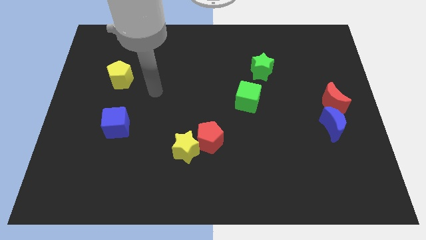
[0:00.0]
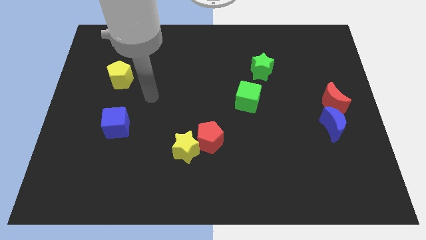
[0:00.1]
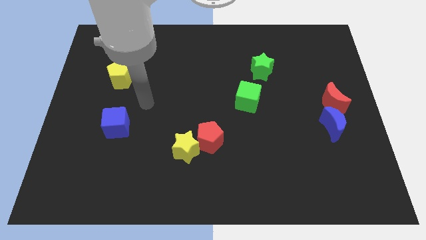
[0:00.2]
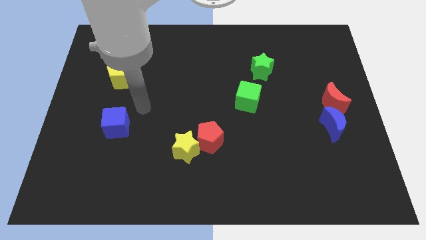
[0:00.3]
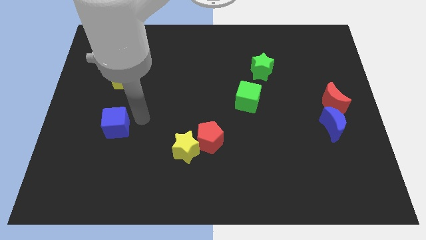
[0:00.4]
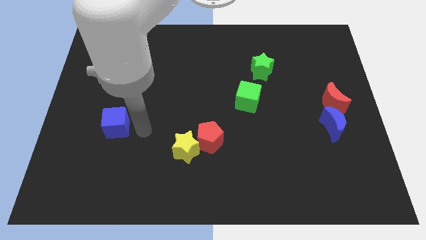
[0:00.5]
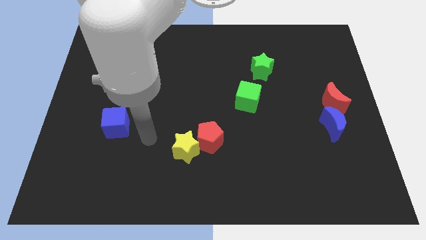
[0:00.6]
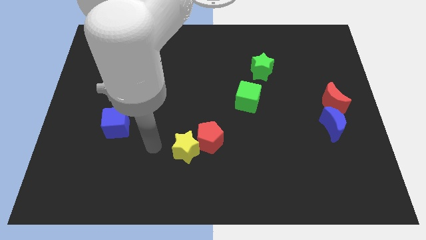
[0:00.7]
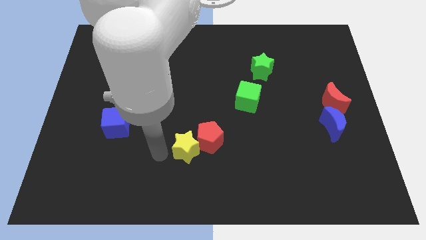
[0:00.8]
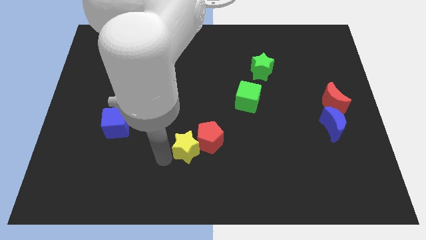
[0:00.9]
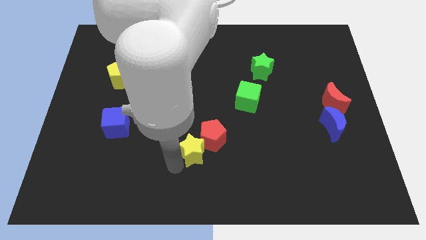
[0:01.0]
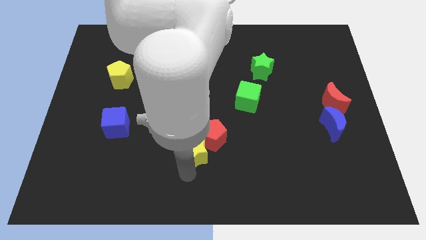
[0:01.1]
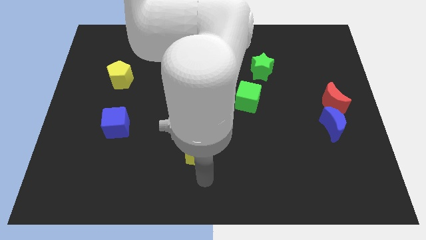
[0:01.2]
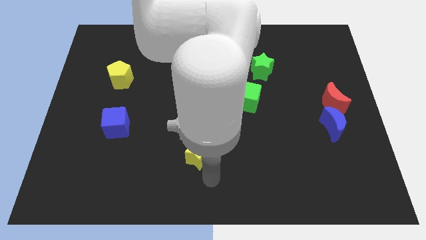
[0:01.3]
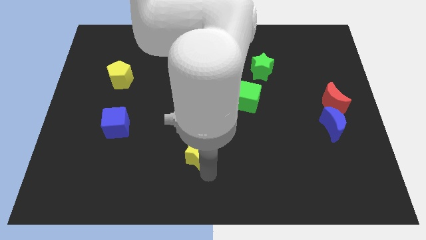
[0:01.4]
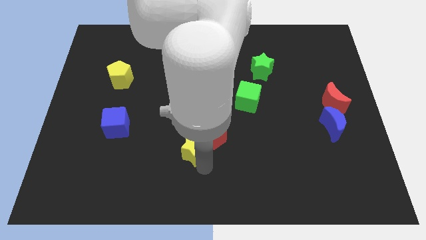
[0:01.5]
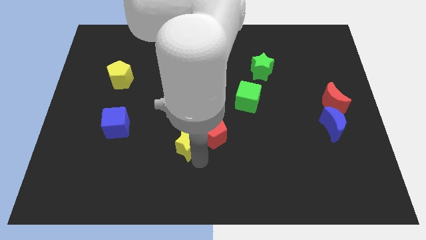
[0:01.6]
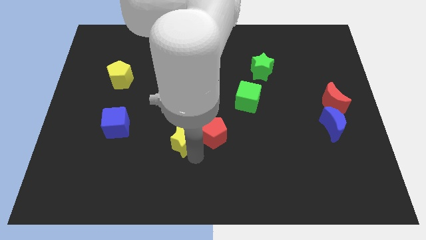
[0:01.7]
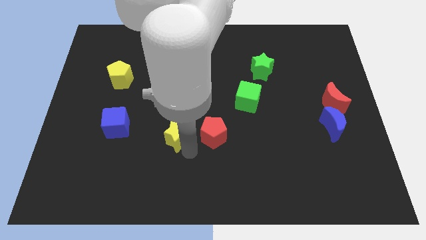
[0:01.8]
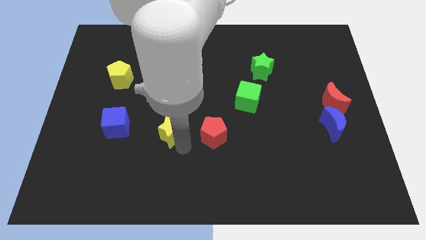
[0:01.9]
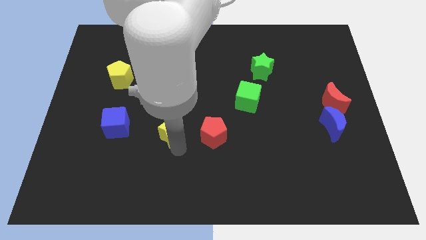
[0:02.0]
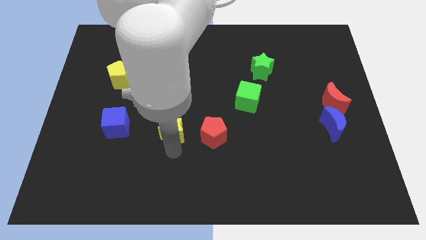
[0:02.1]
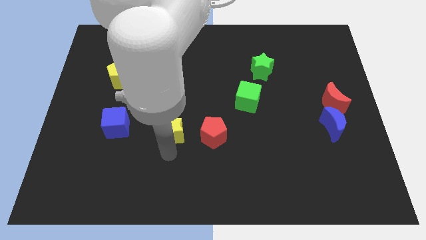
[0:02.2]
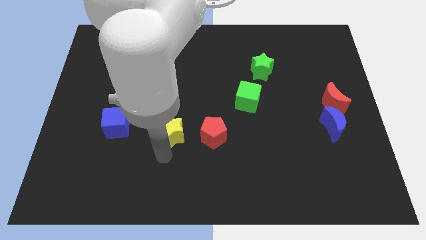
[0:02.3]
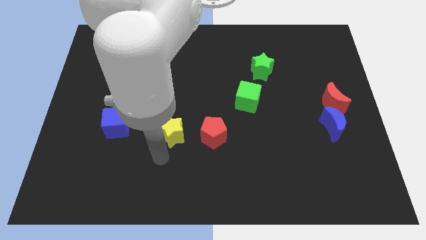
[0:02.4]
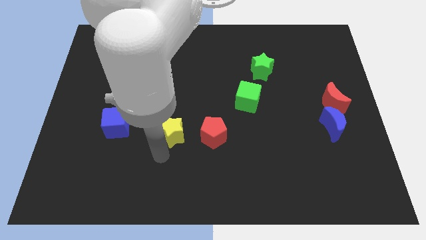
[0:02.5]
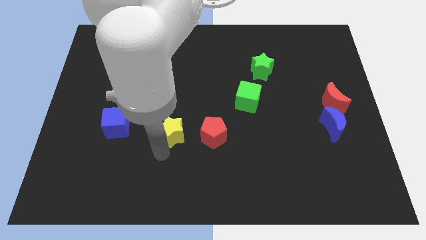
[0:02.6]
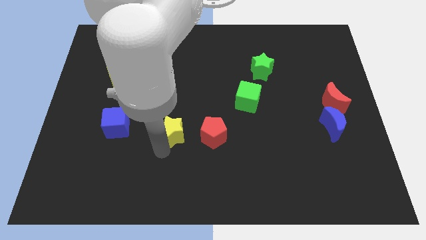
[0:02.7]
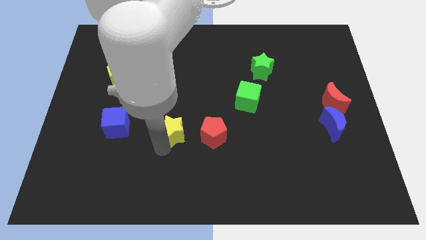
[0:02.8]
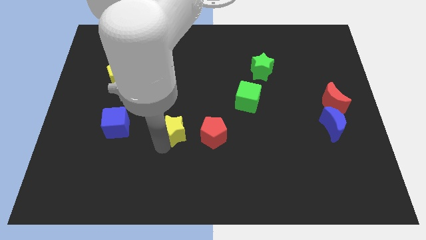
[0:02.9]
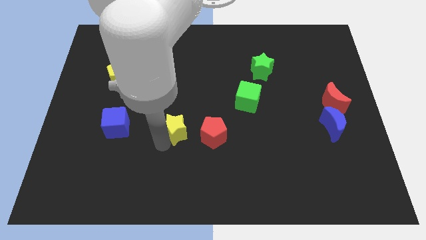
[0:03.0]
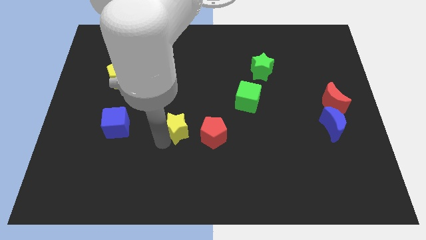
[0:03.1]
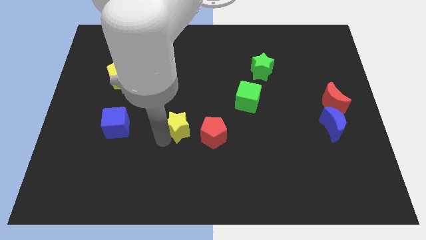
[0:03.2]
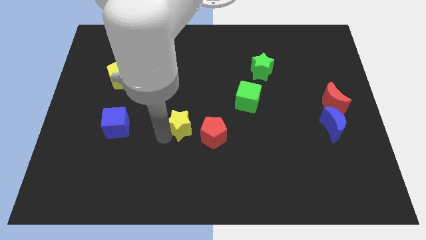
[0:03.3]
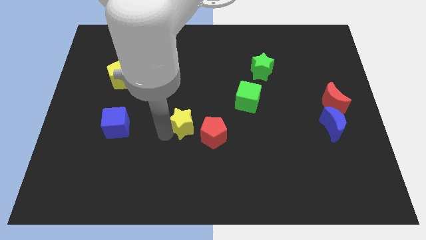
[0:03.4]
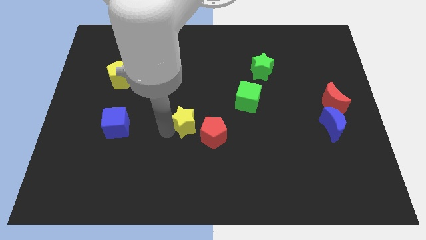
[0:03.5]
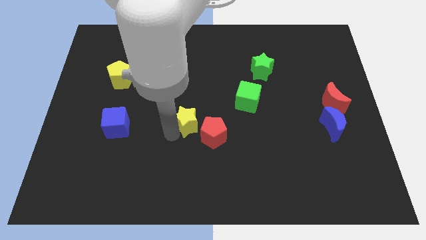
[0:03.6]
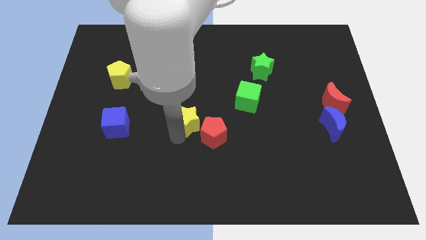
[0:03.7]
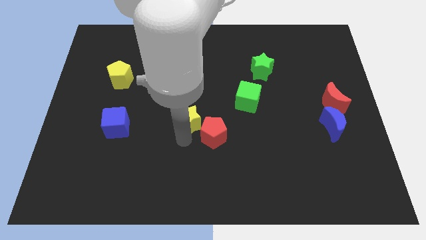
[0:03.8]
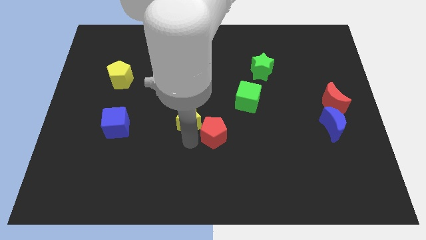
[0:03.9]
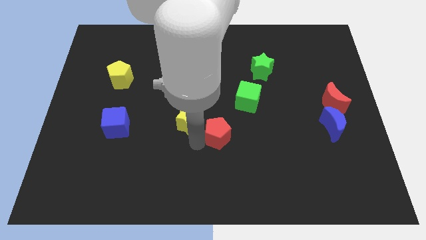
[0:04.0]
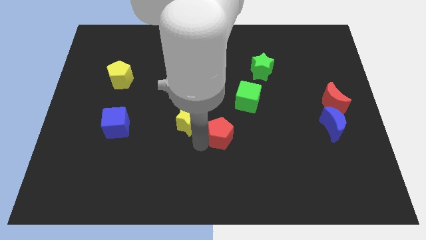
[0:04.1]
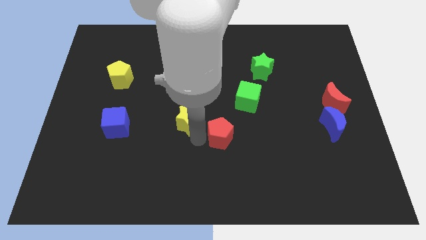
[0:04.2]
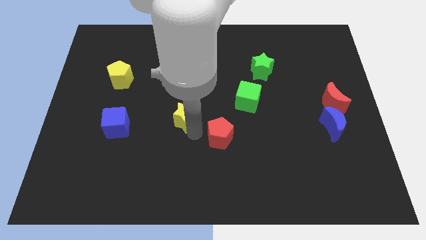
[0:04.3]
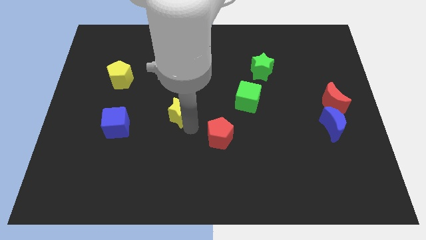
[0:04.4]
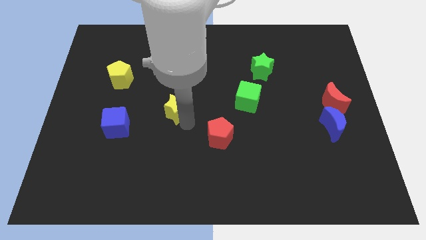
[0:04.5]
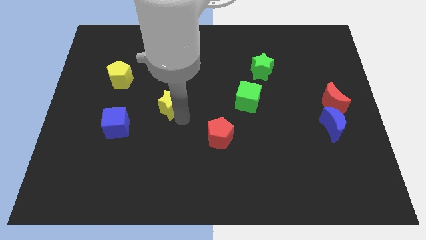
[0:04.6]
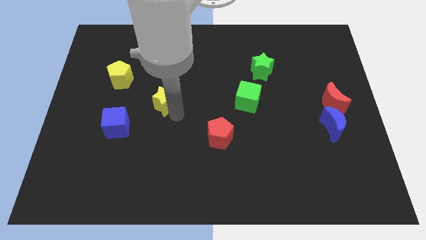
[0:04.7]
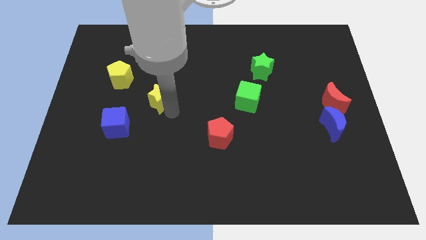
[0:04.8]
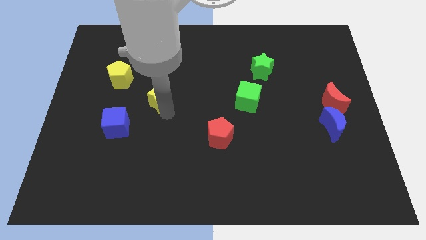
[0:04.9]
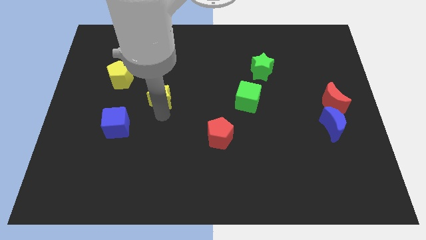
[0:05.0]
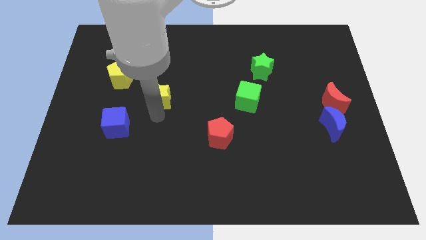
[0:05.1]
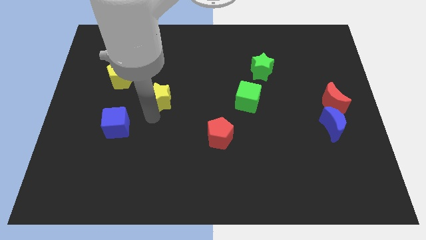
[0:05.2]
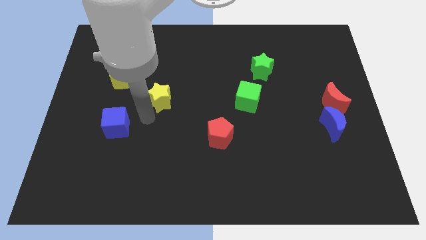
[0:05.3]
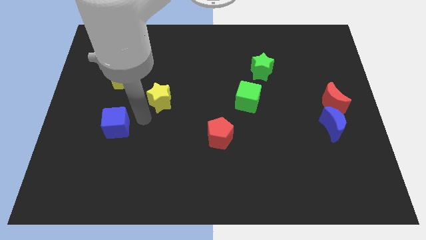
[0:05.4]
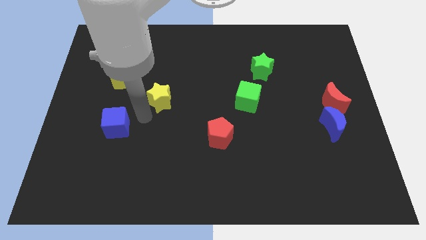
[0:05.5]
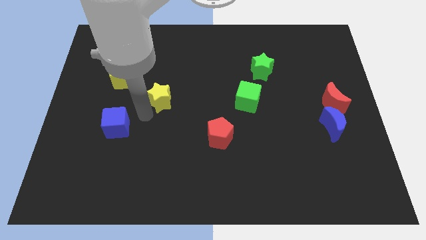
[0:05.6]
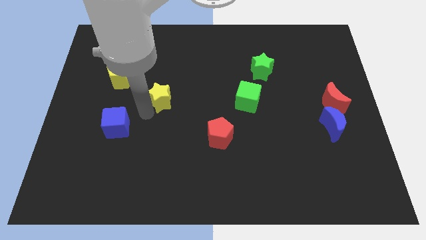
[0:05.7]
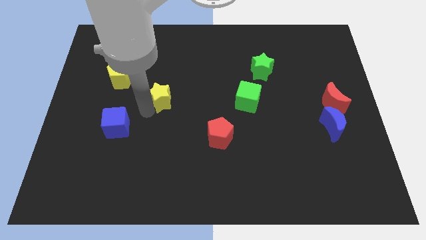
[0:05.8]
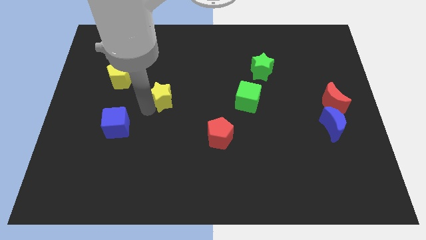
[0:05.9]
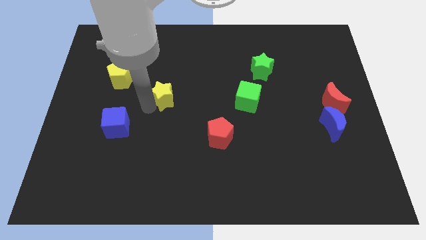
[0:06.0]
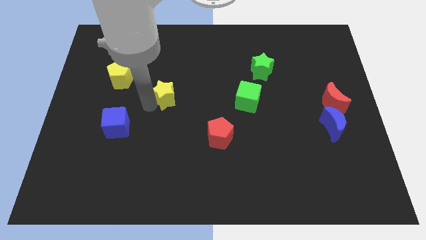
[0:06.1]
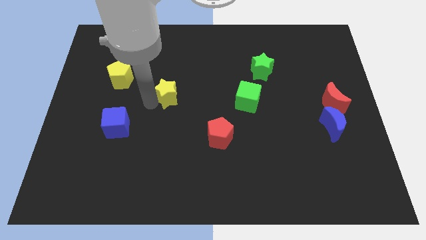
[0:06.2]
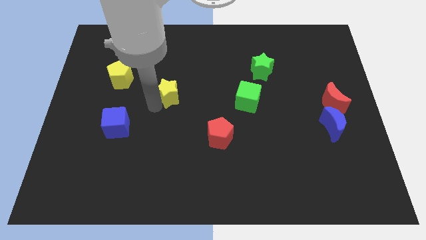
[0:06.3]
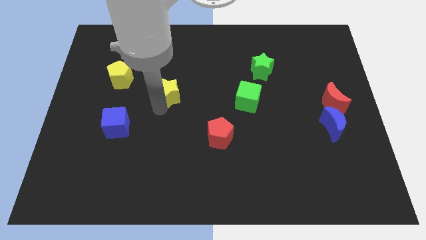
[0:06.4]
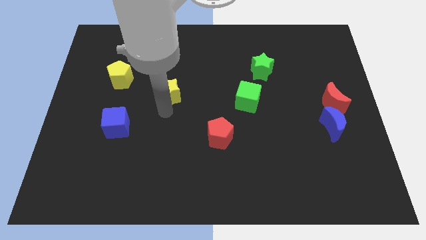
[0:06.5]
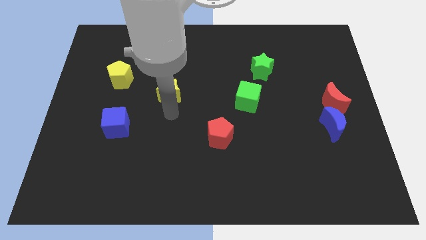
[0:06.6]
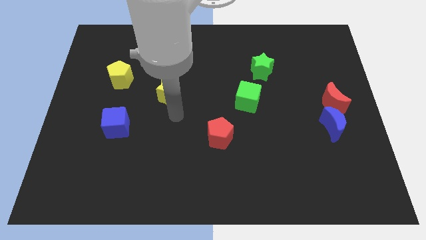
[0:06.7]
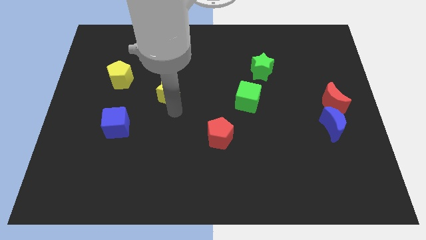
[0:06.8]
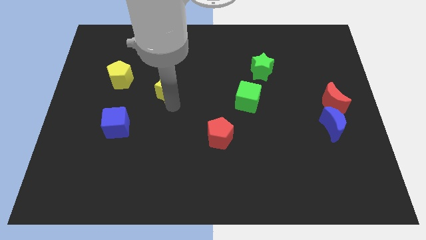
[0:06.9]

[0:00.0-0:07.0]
move the yellow star right of the yellow pentagon
